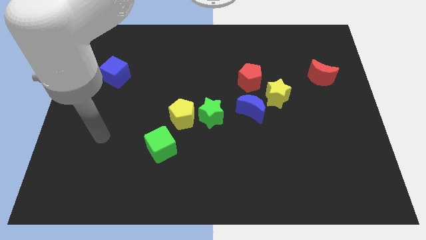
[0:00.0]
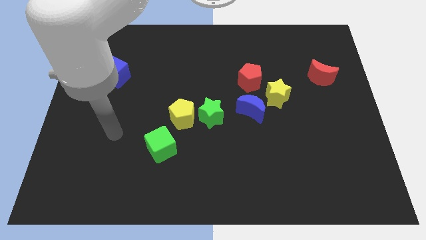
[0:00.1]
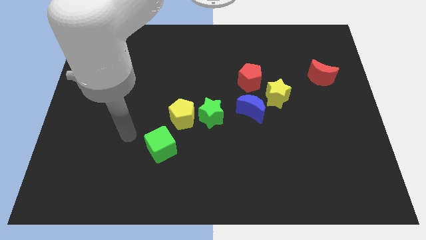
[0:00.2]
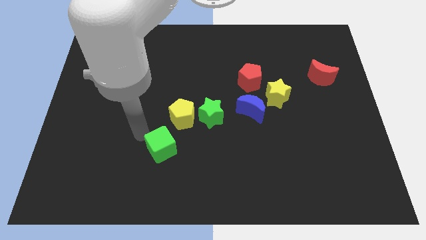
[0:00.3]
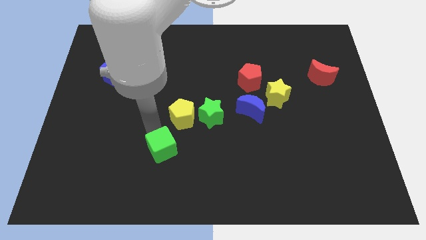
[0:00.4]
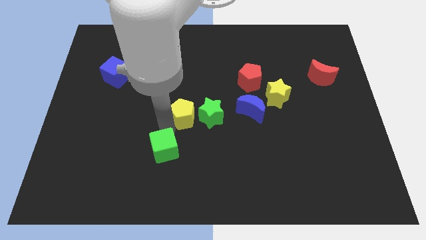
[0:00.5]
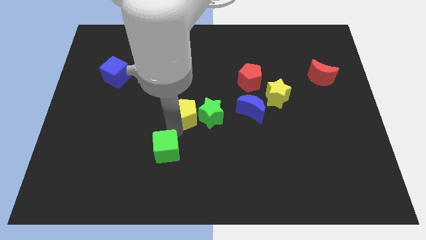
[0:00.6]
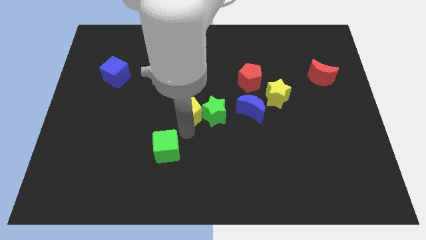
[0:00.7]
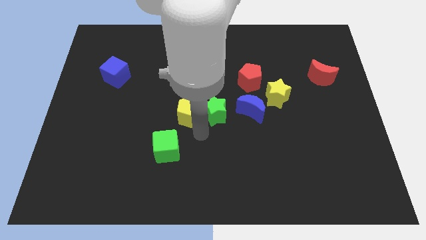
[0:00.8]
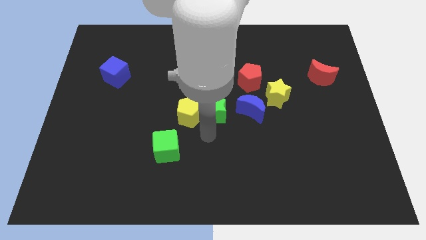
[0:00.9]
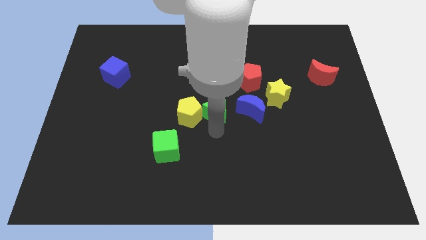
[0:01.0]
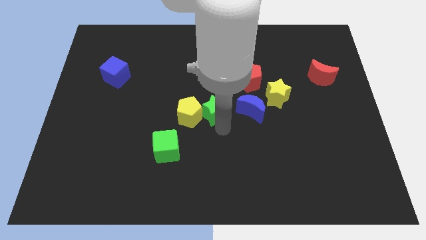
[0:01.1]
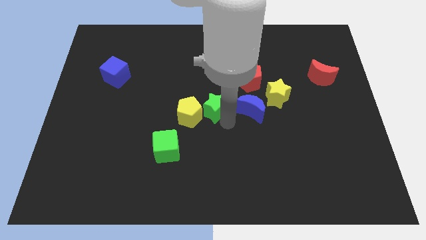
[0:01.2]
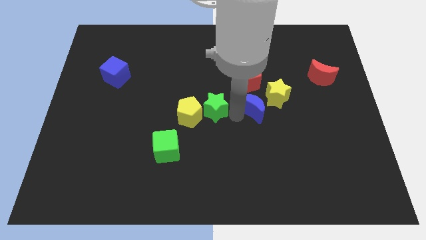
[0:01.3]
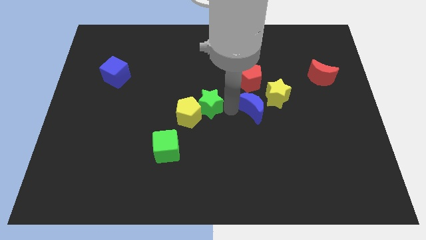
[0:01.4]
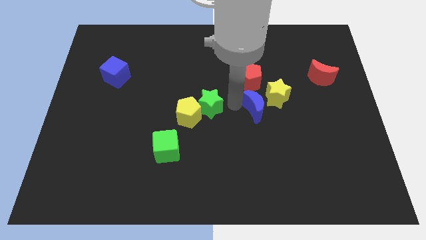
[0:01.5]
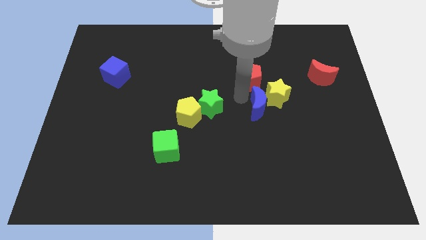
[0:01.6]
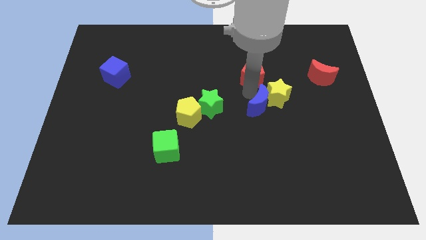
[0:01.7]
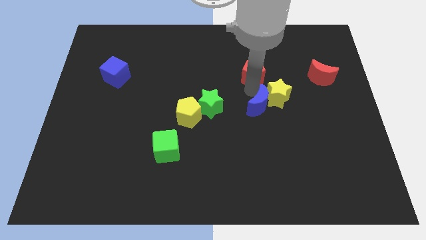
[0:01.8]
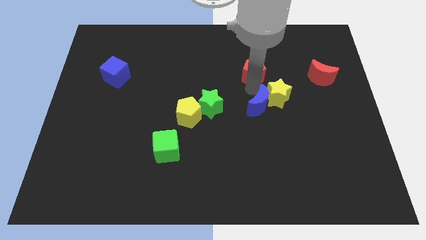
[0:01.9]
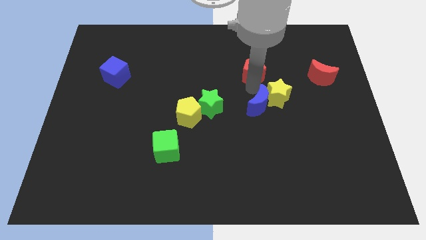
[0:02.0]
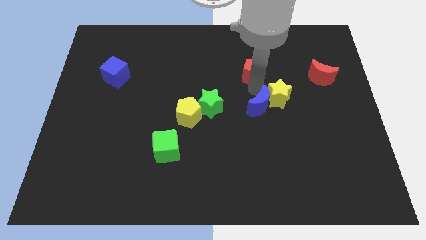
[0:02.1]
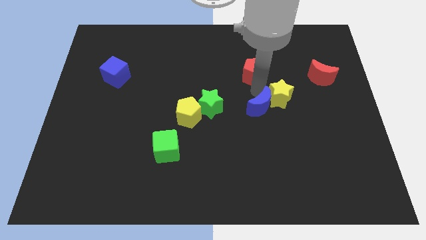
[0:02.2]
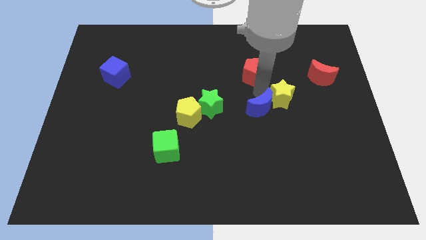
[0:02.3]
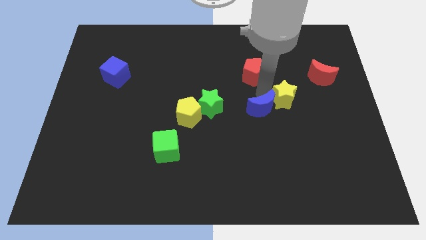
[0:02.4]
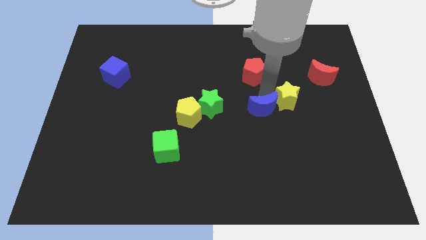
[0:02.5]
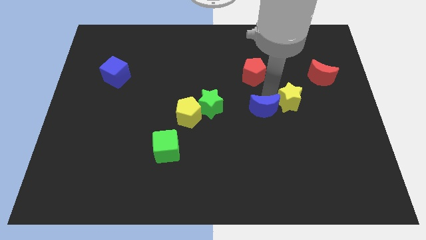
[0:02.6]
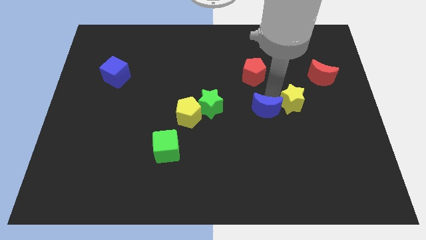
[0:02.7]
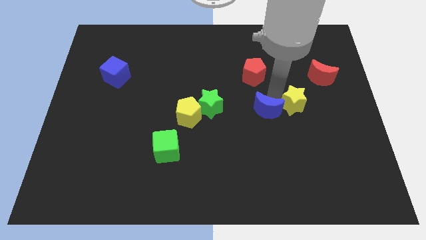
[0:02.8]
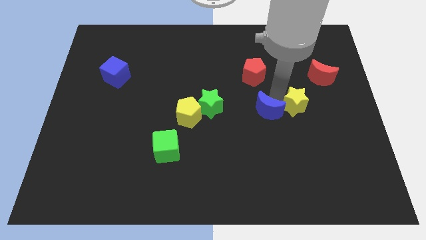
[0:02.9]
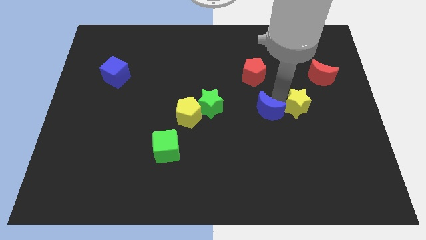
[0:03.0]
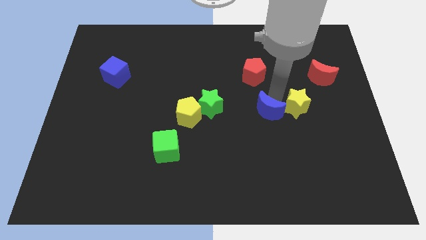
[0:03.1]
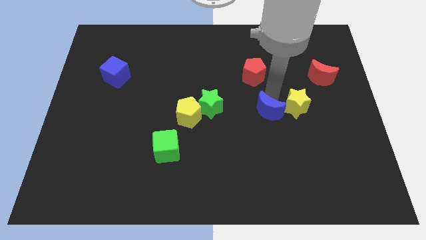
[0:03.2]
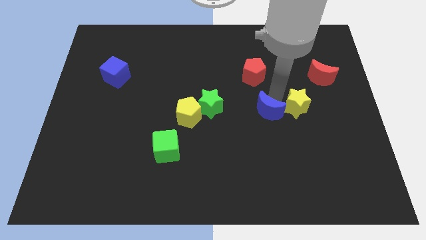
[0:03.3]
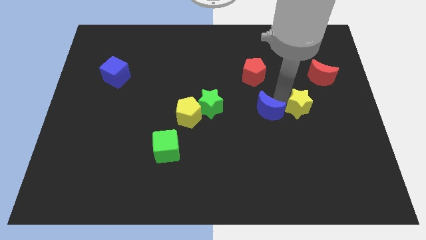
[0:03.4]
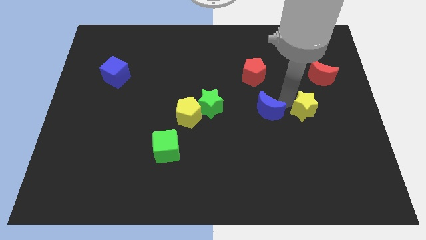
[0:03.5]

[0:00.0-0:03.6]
move the yellow star away from the blue moon and red pentagon

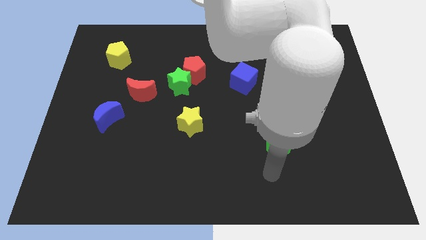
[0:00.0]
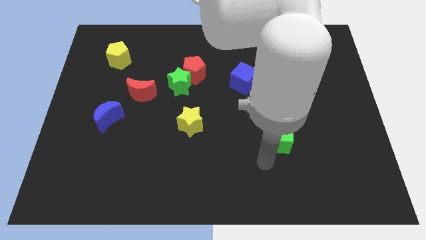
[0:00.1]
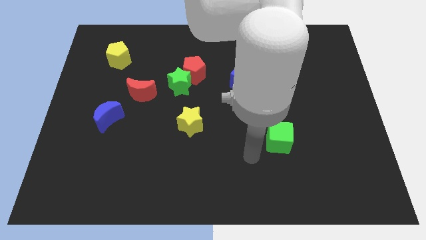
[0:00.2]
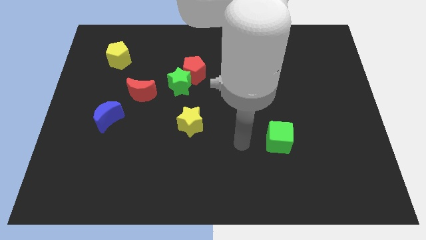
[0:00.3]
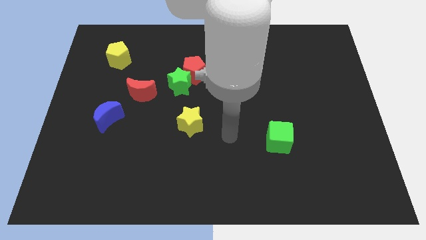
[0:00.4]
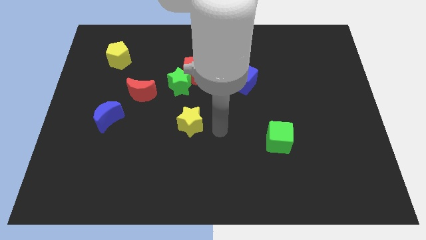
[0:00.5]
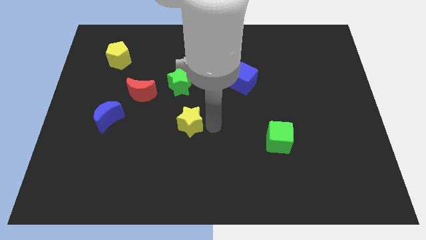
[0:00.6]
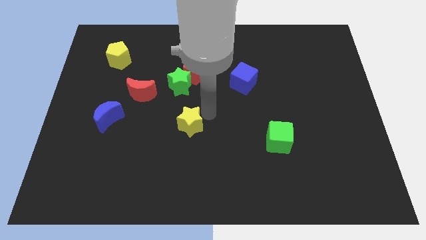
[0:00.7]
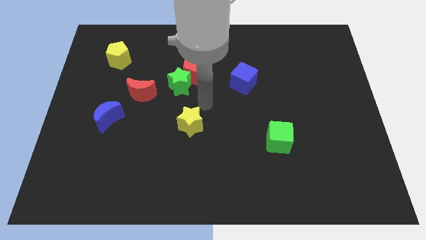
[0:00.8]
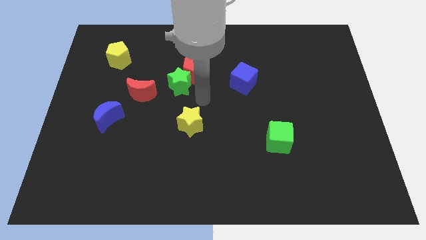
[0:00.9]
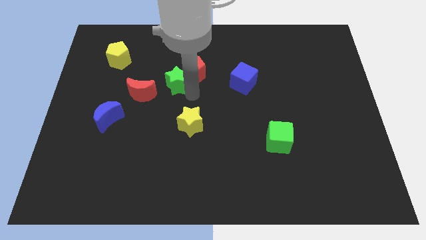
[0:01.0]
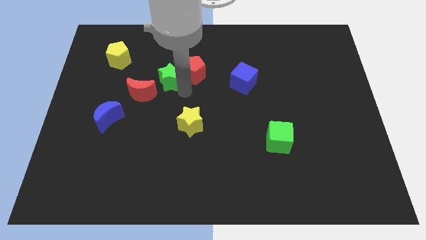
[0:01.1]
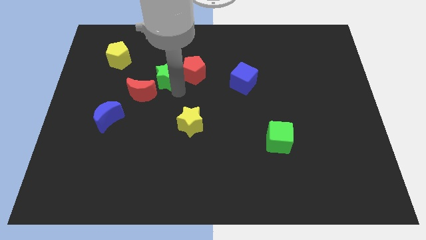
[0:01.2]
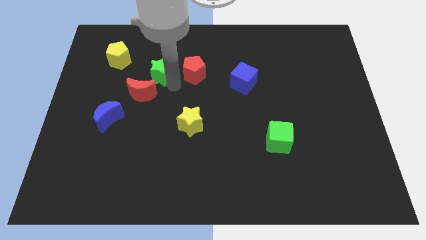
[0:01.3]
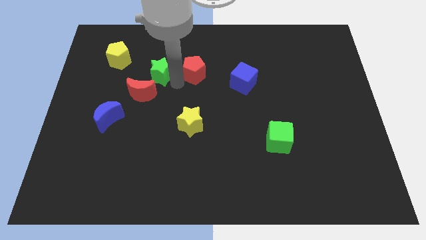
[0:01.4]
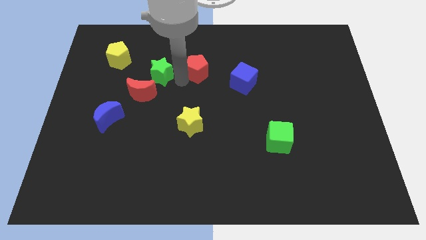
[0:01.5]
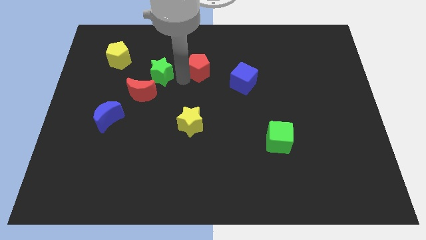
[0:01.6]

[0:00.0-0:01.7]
separate the red pentagon from the green star

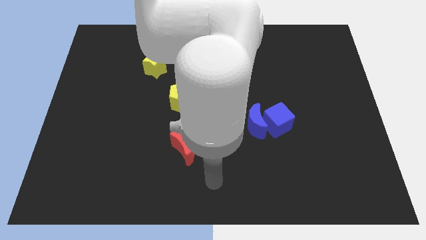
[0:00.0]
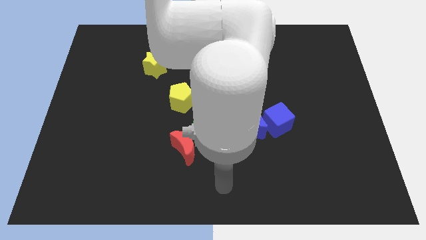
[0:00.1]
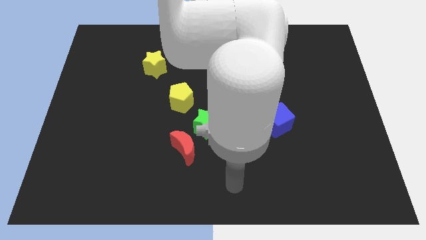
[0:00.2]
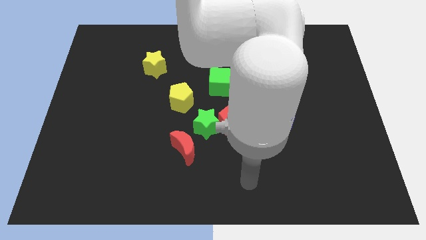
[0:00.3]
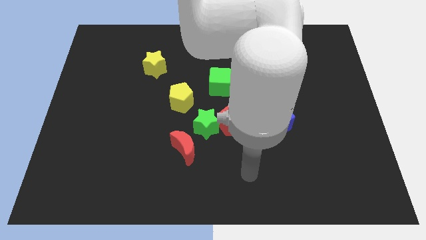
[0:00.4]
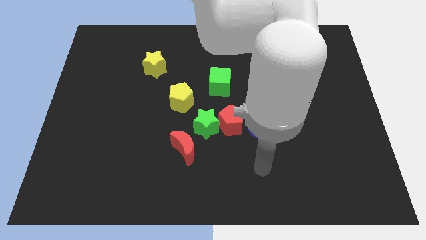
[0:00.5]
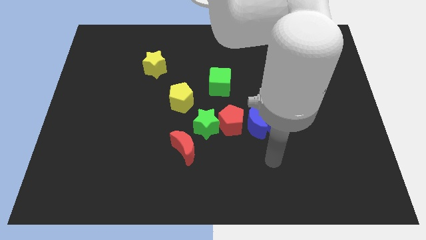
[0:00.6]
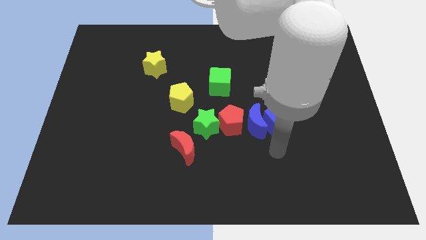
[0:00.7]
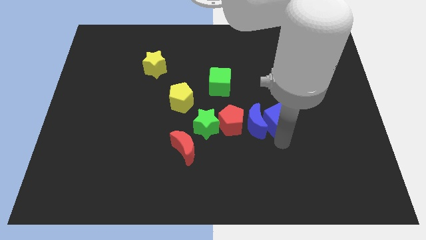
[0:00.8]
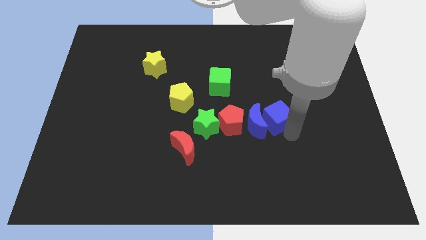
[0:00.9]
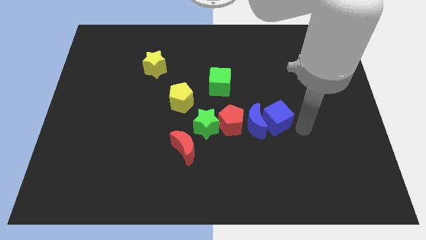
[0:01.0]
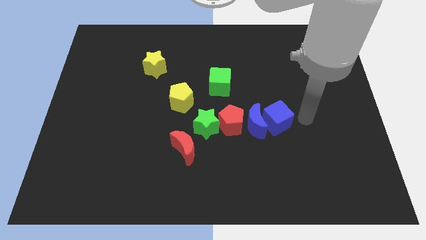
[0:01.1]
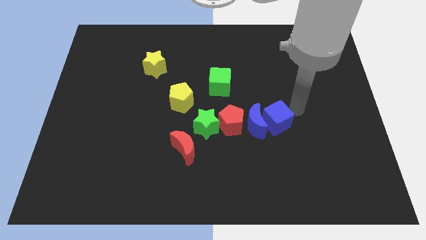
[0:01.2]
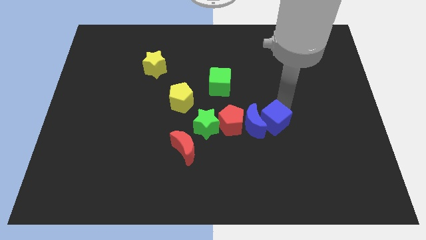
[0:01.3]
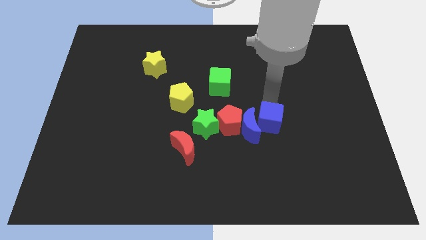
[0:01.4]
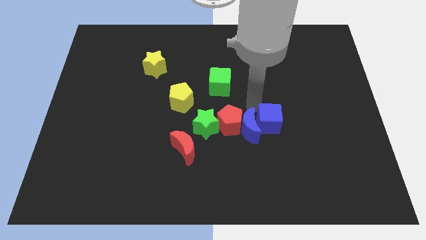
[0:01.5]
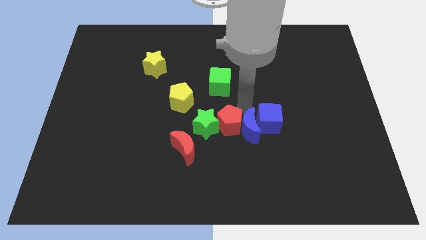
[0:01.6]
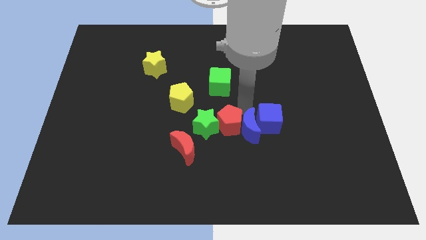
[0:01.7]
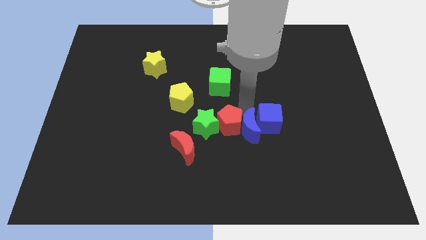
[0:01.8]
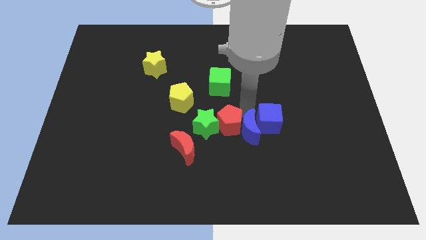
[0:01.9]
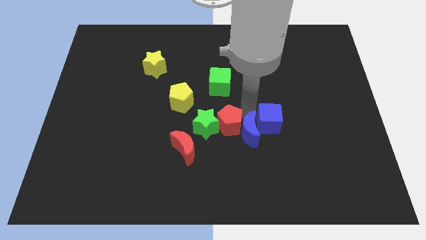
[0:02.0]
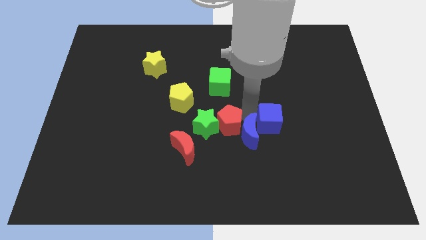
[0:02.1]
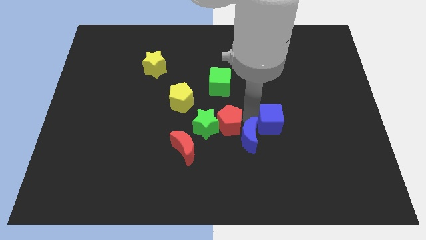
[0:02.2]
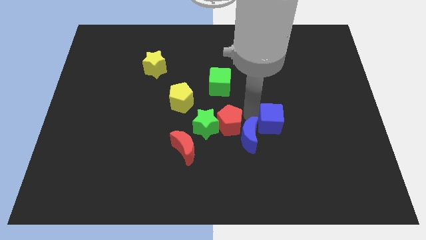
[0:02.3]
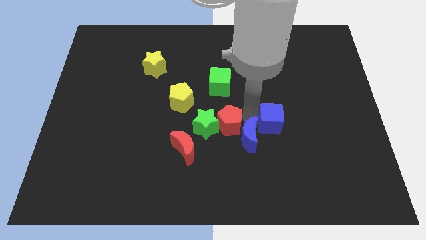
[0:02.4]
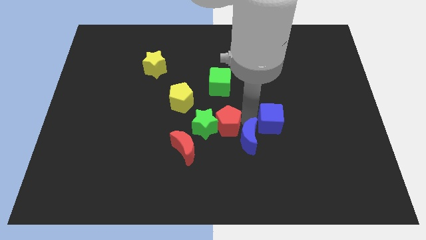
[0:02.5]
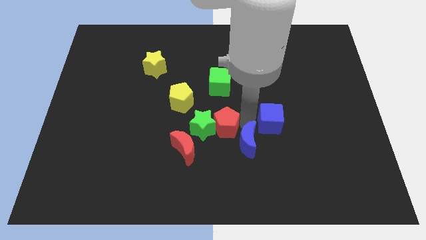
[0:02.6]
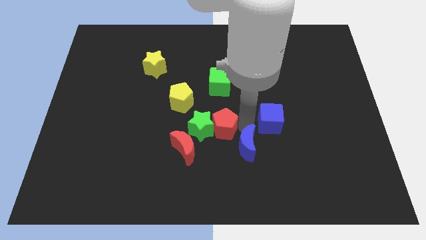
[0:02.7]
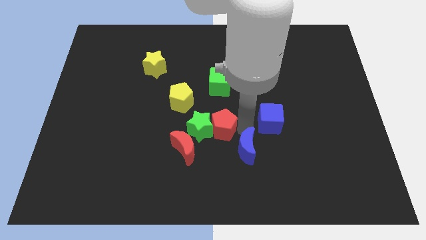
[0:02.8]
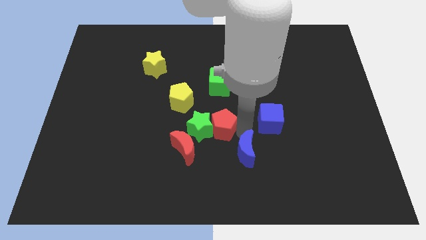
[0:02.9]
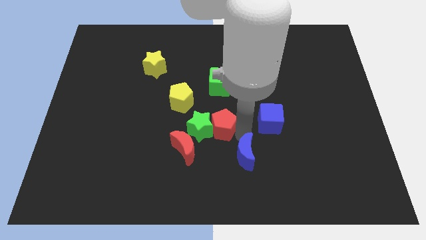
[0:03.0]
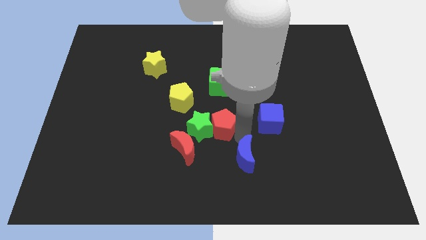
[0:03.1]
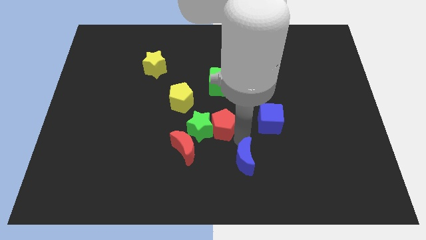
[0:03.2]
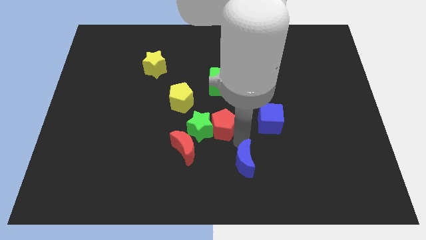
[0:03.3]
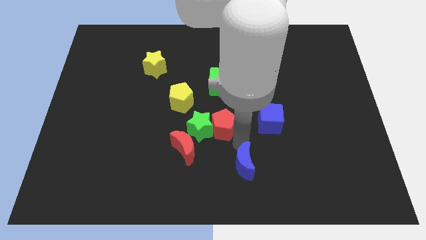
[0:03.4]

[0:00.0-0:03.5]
pull the blue moon apart from the blue cube and red pentagon

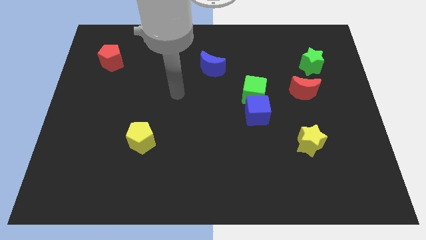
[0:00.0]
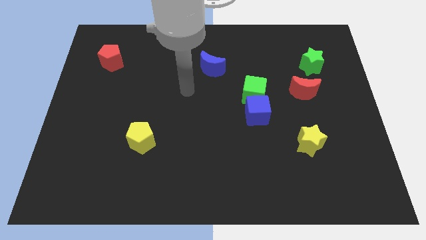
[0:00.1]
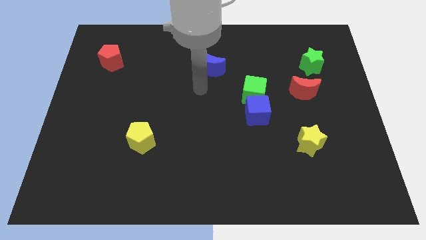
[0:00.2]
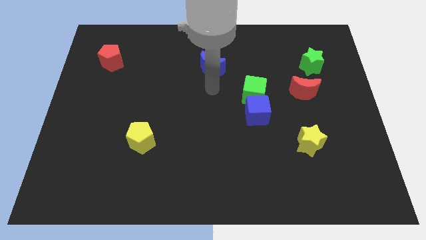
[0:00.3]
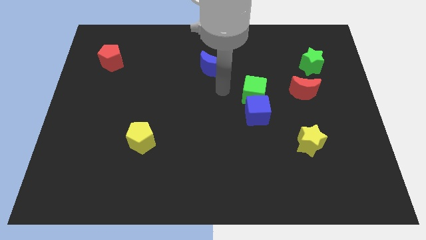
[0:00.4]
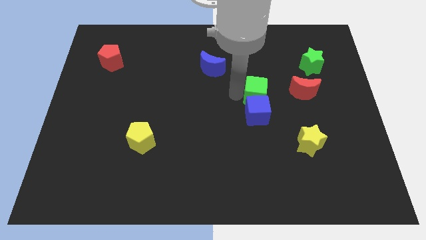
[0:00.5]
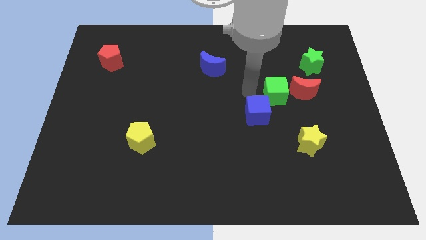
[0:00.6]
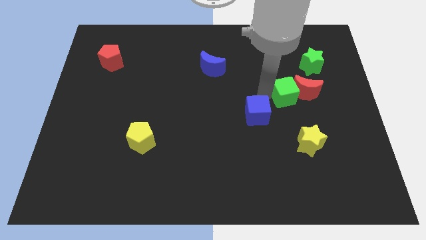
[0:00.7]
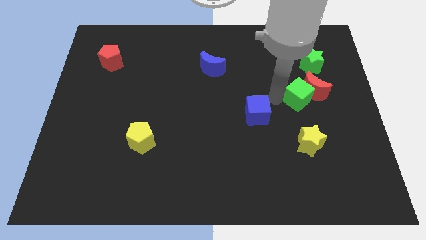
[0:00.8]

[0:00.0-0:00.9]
pull the blue cube apart from the green cube
